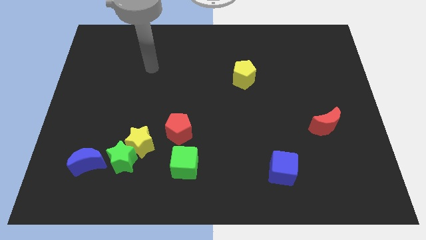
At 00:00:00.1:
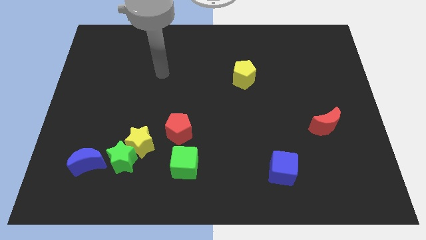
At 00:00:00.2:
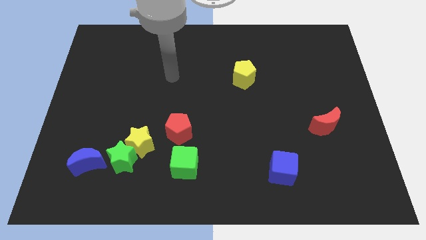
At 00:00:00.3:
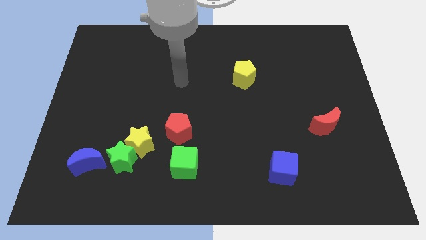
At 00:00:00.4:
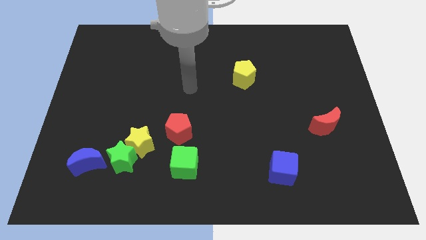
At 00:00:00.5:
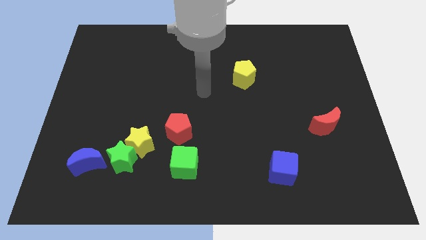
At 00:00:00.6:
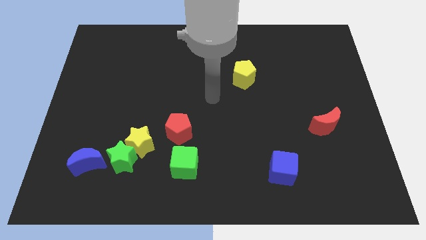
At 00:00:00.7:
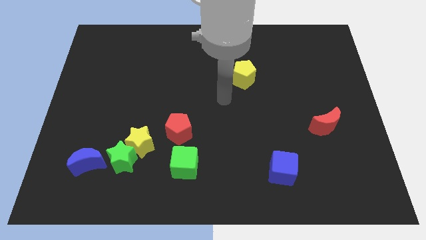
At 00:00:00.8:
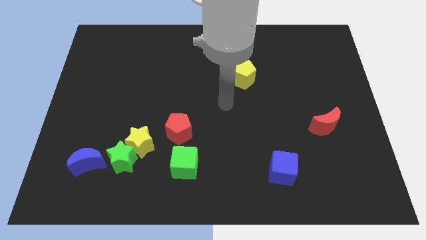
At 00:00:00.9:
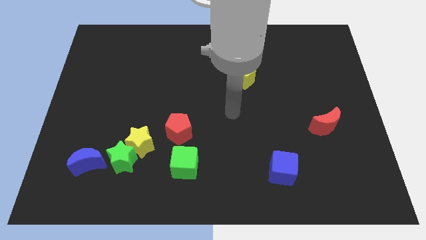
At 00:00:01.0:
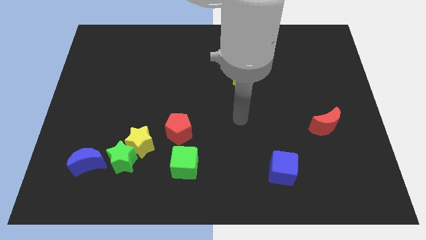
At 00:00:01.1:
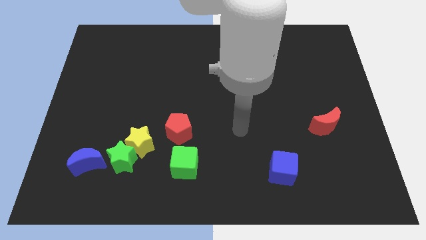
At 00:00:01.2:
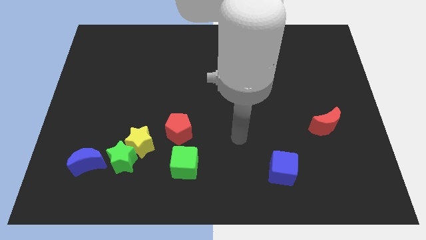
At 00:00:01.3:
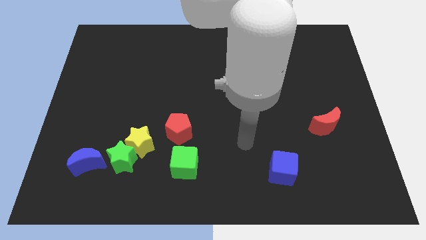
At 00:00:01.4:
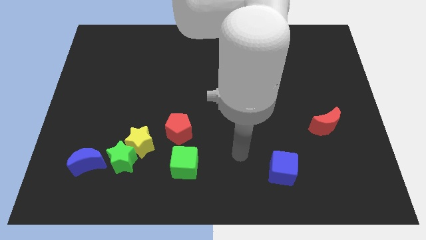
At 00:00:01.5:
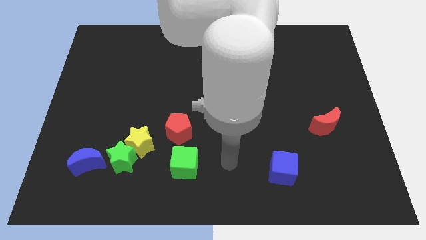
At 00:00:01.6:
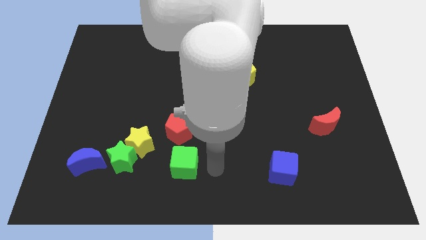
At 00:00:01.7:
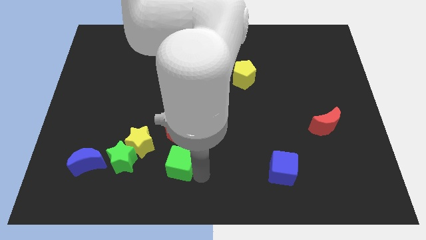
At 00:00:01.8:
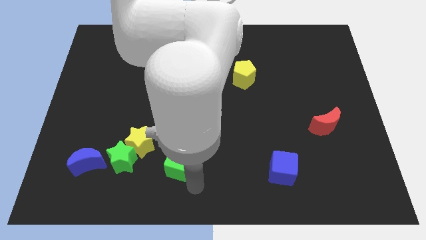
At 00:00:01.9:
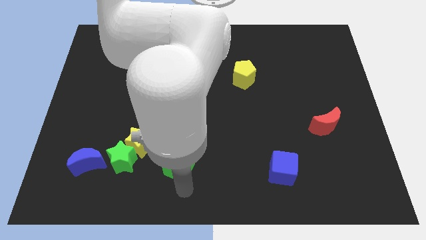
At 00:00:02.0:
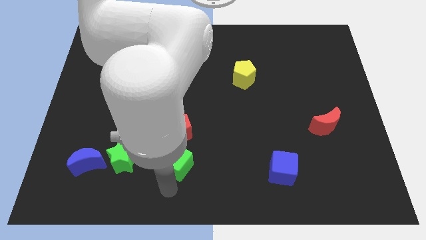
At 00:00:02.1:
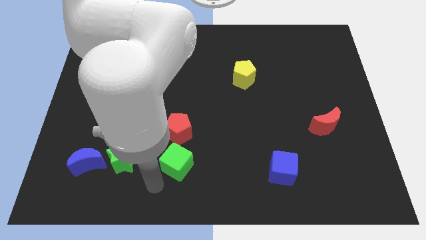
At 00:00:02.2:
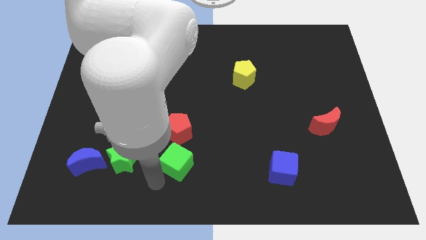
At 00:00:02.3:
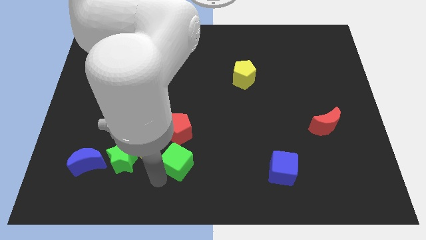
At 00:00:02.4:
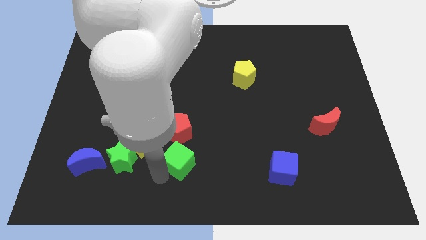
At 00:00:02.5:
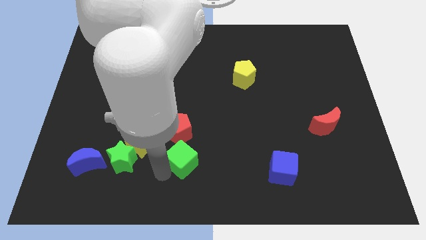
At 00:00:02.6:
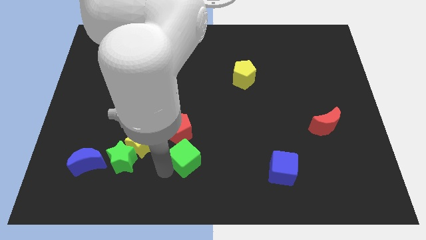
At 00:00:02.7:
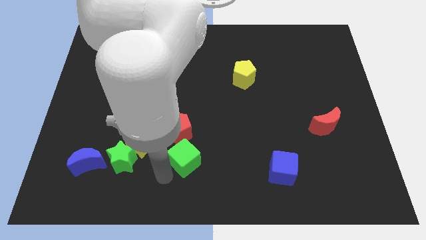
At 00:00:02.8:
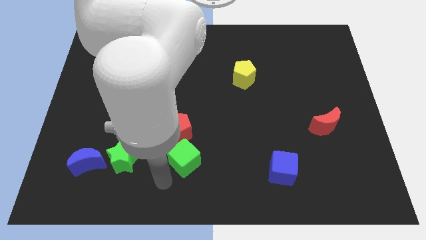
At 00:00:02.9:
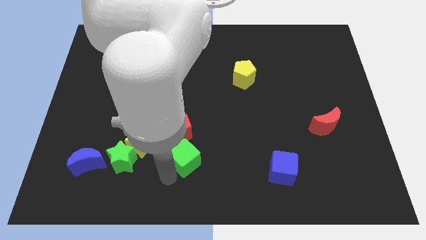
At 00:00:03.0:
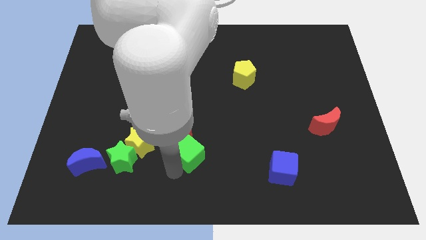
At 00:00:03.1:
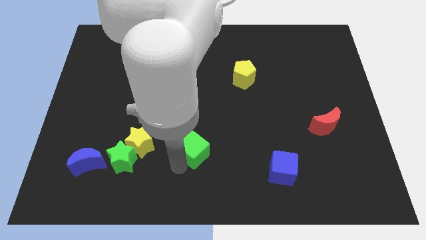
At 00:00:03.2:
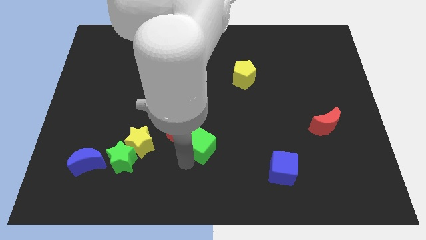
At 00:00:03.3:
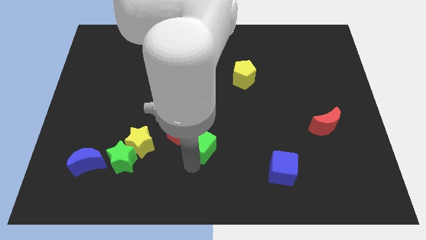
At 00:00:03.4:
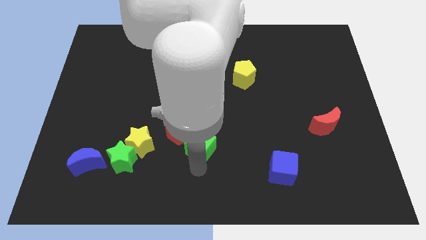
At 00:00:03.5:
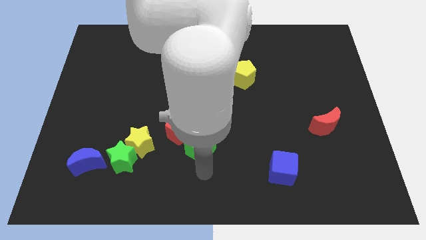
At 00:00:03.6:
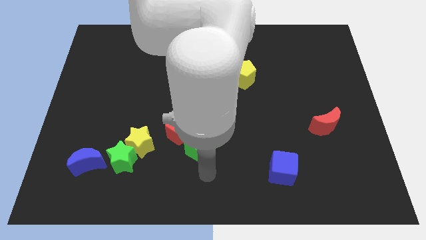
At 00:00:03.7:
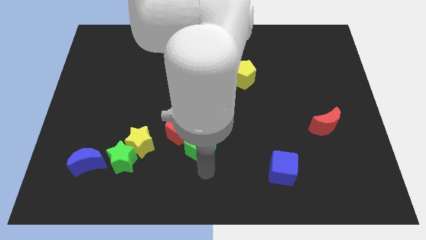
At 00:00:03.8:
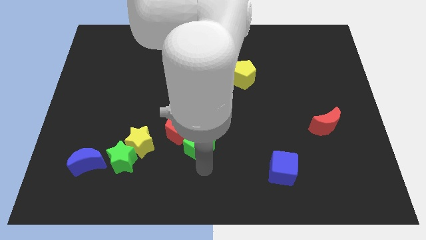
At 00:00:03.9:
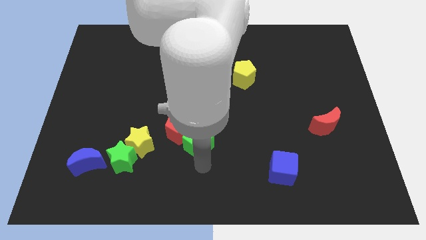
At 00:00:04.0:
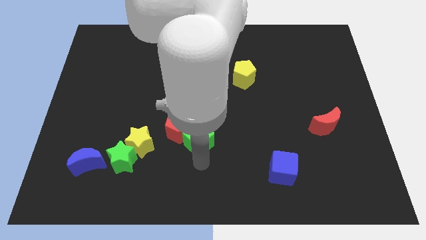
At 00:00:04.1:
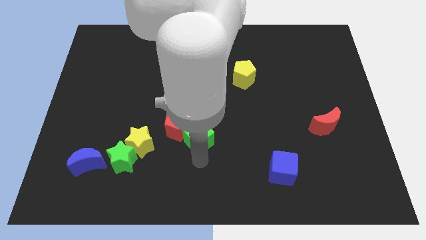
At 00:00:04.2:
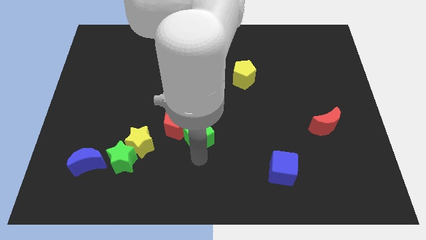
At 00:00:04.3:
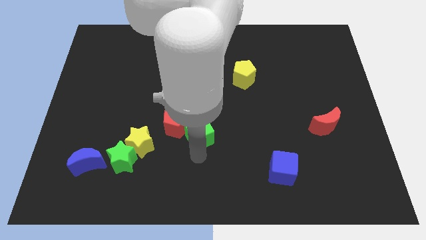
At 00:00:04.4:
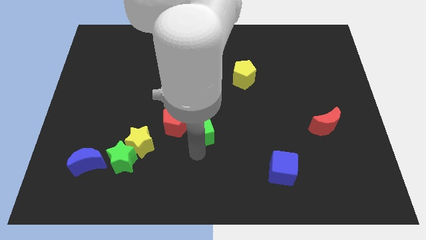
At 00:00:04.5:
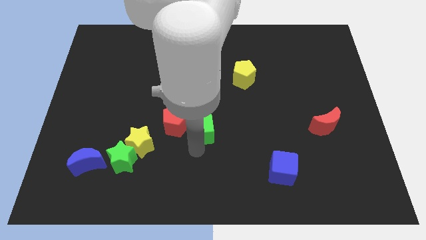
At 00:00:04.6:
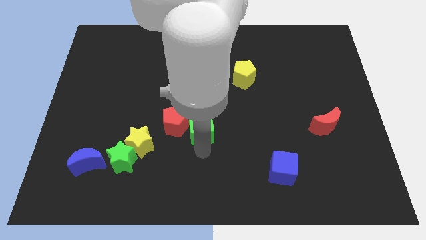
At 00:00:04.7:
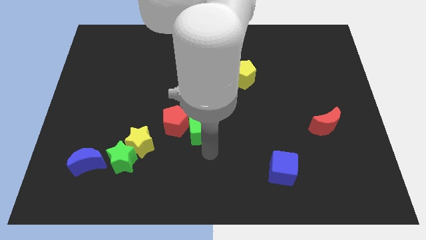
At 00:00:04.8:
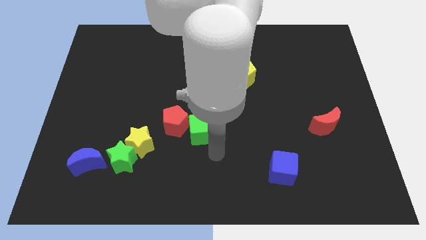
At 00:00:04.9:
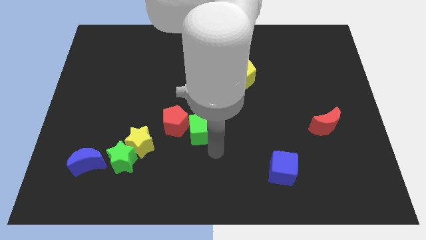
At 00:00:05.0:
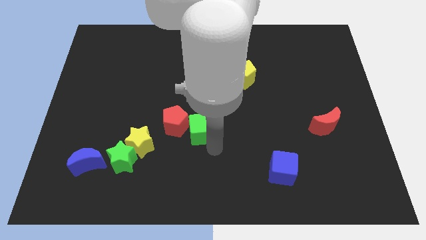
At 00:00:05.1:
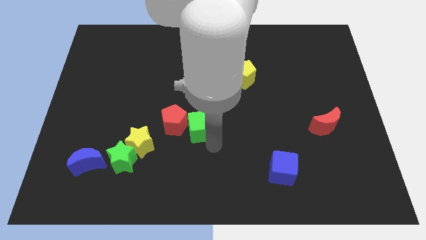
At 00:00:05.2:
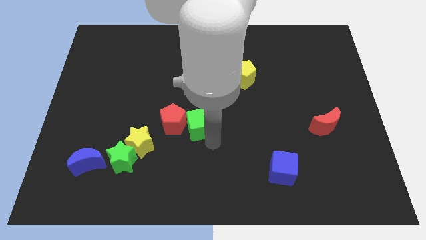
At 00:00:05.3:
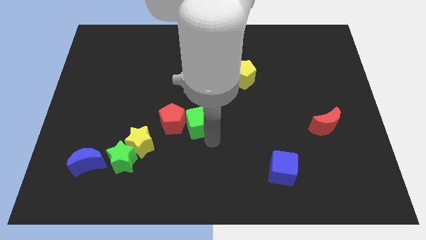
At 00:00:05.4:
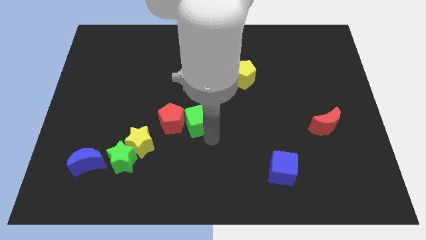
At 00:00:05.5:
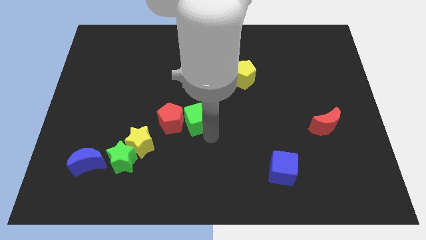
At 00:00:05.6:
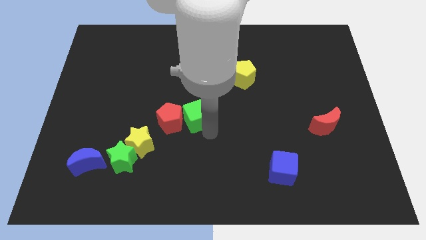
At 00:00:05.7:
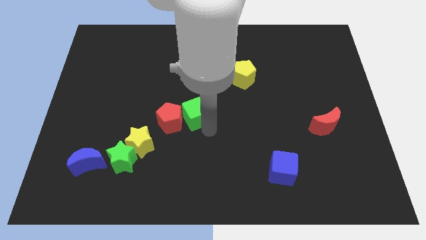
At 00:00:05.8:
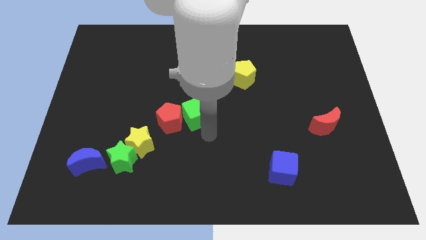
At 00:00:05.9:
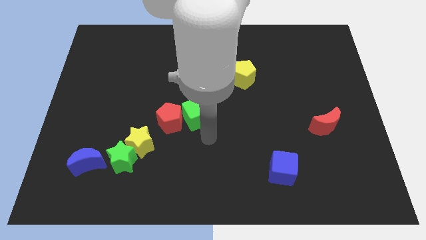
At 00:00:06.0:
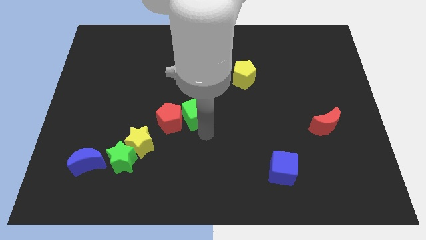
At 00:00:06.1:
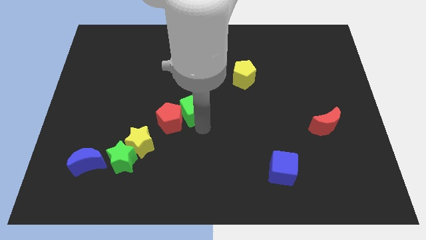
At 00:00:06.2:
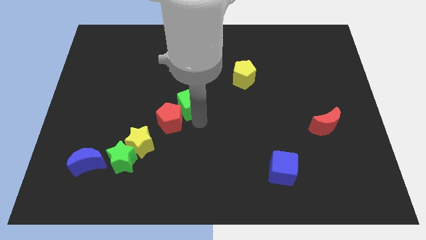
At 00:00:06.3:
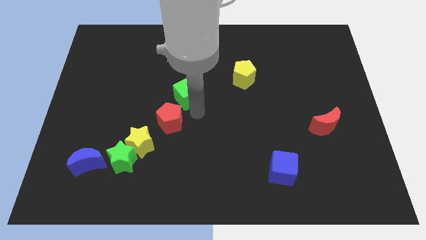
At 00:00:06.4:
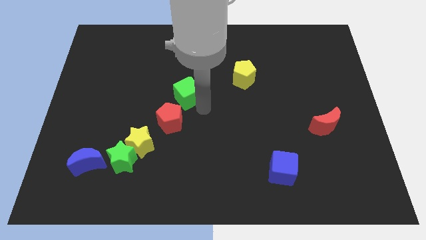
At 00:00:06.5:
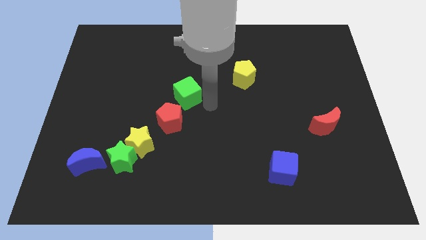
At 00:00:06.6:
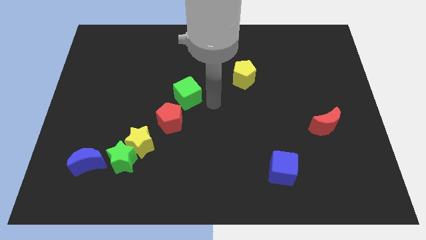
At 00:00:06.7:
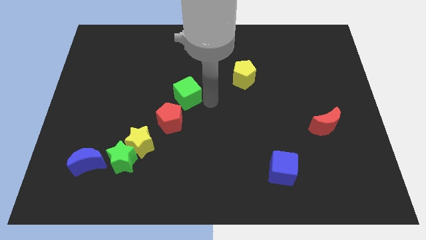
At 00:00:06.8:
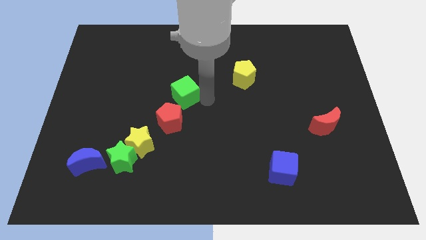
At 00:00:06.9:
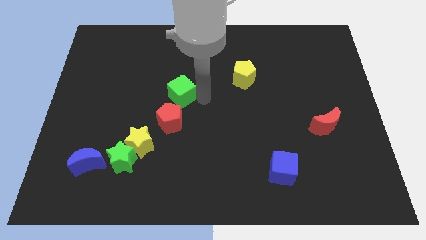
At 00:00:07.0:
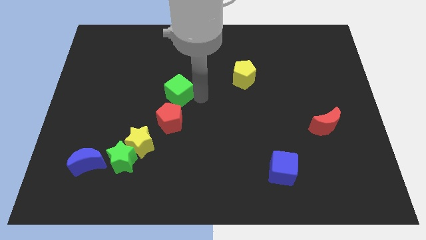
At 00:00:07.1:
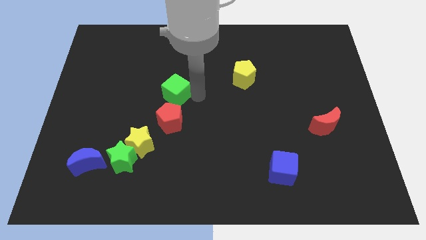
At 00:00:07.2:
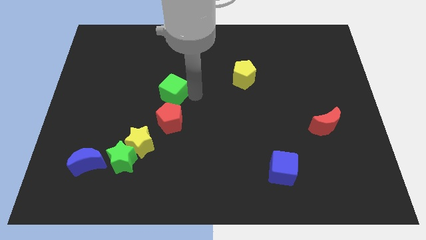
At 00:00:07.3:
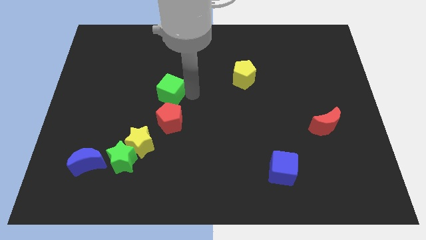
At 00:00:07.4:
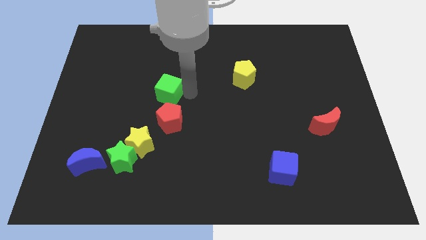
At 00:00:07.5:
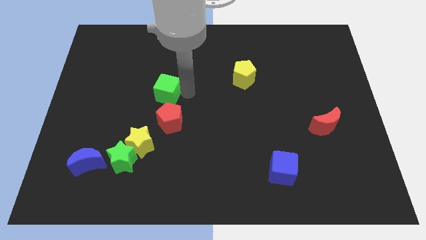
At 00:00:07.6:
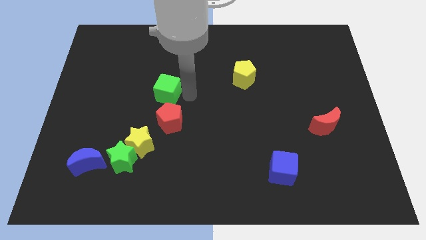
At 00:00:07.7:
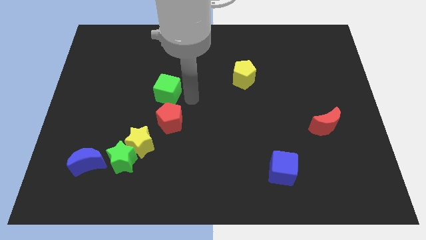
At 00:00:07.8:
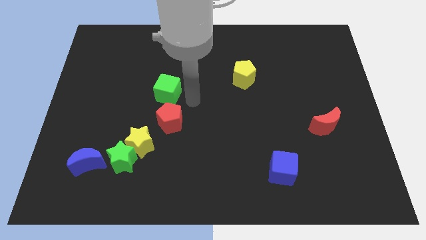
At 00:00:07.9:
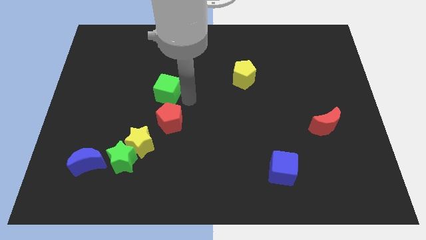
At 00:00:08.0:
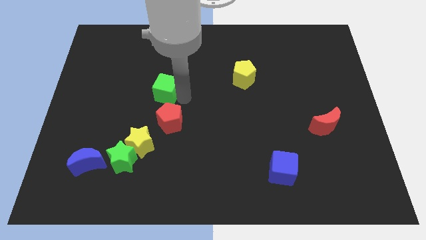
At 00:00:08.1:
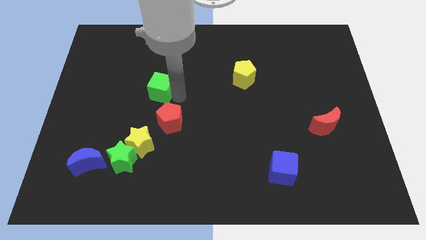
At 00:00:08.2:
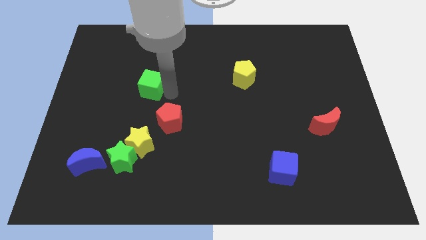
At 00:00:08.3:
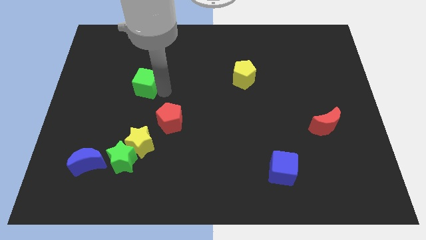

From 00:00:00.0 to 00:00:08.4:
push the green cube up and left diagonally
